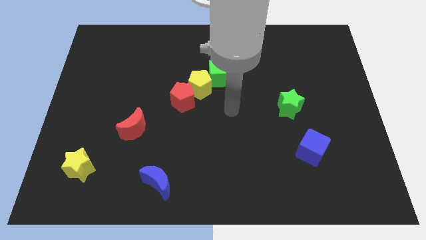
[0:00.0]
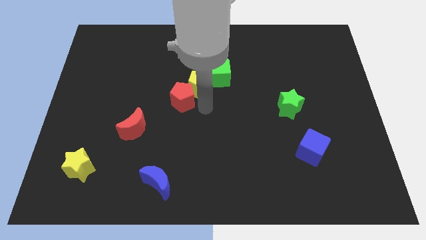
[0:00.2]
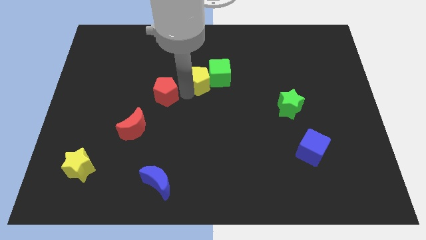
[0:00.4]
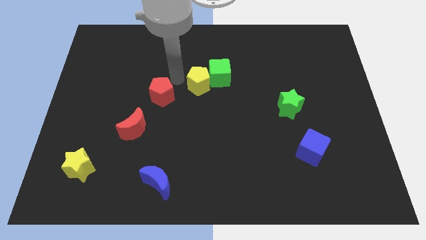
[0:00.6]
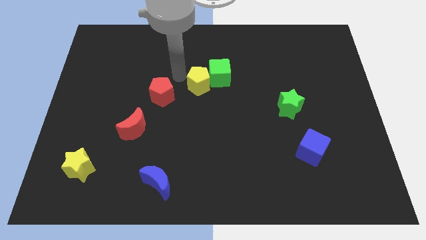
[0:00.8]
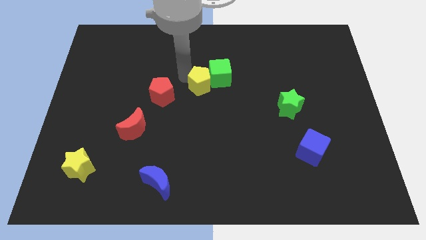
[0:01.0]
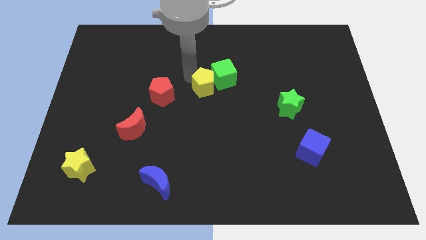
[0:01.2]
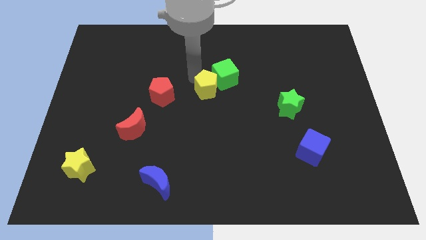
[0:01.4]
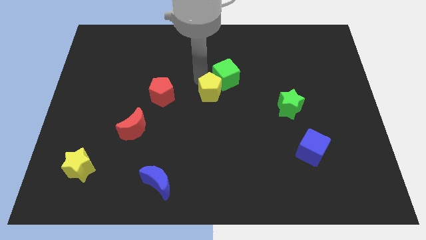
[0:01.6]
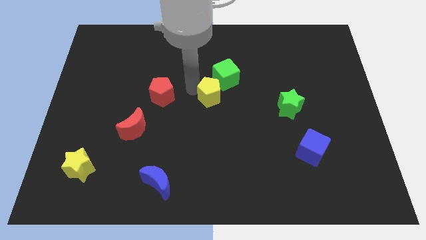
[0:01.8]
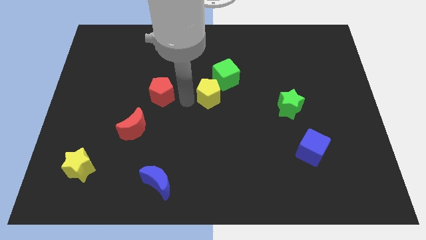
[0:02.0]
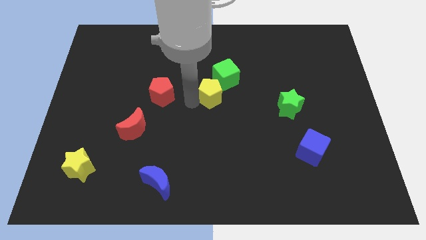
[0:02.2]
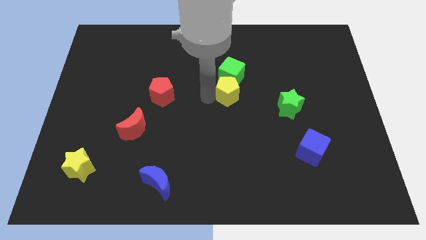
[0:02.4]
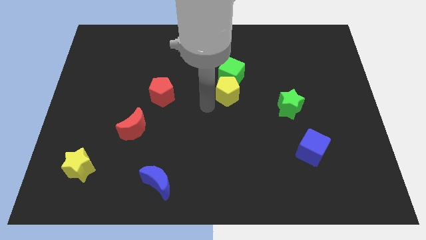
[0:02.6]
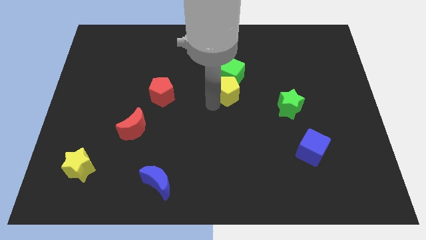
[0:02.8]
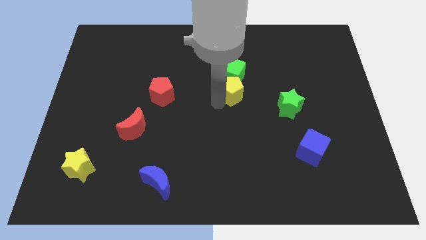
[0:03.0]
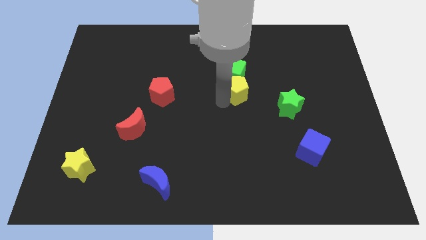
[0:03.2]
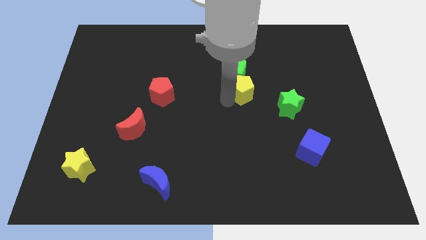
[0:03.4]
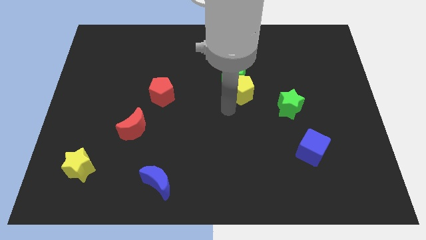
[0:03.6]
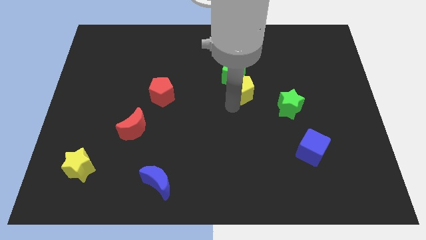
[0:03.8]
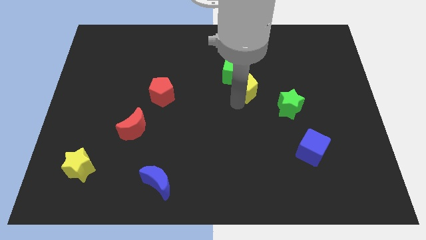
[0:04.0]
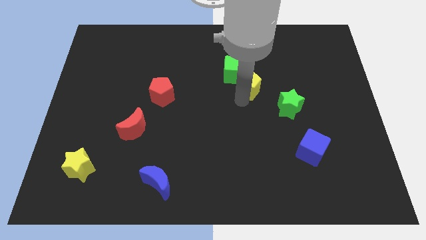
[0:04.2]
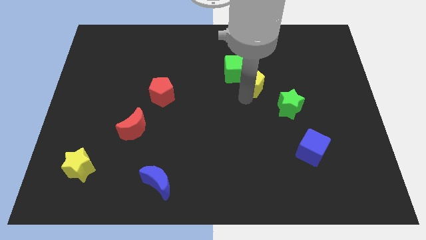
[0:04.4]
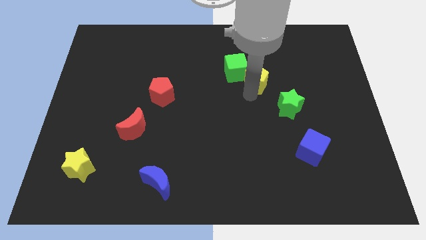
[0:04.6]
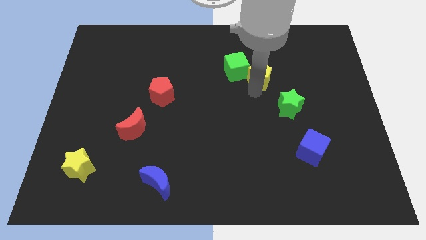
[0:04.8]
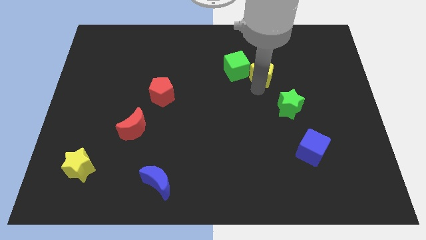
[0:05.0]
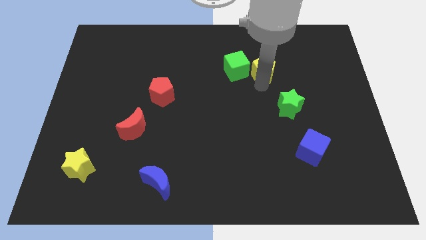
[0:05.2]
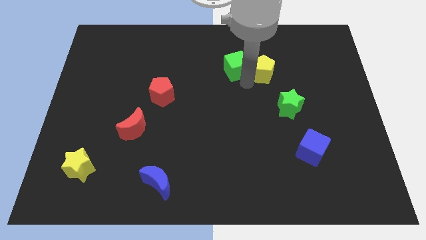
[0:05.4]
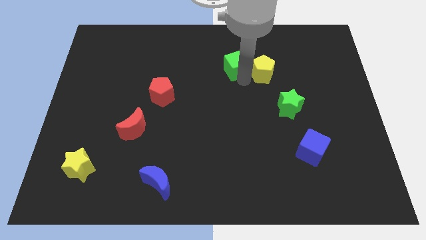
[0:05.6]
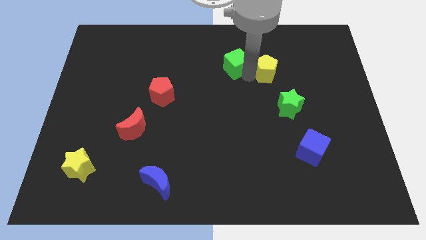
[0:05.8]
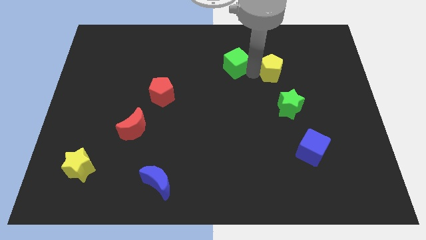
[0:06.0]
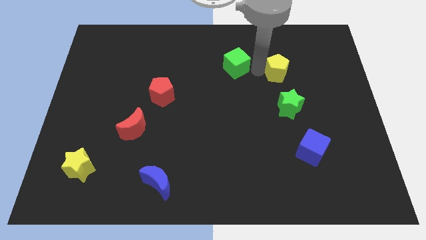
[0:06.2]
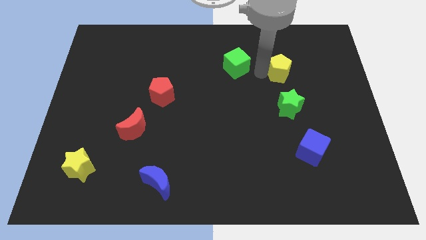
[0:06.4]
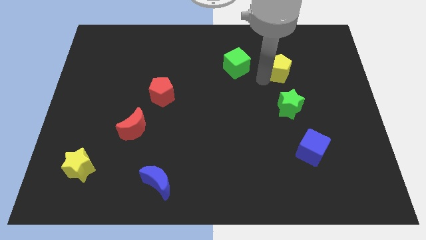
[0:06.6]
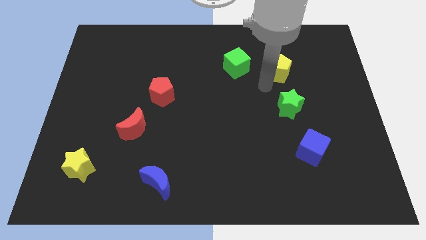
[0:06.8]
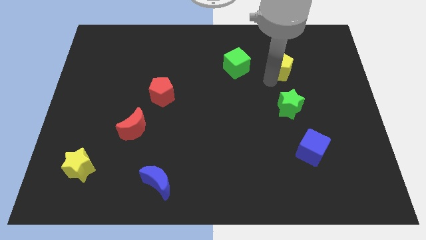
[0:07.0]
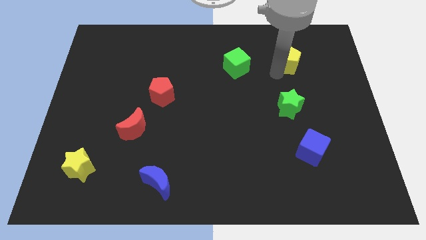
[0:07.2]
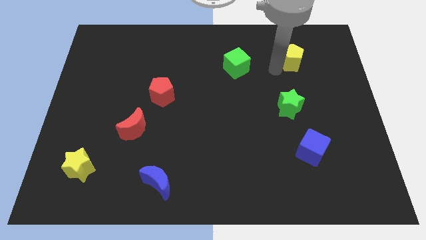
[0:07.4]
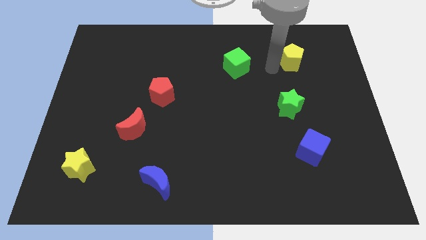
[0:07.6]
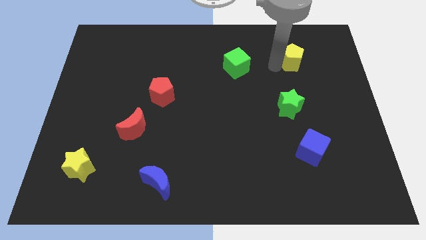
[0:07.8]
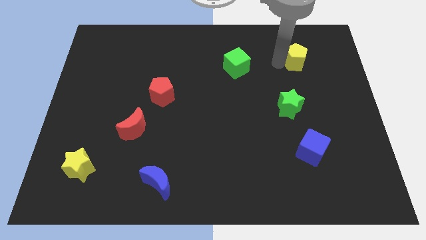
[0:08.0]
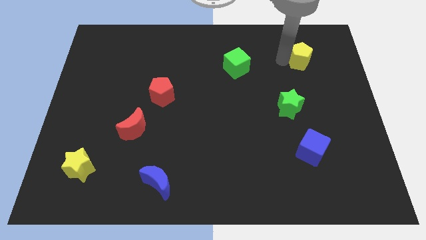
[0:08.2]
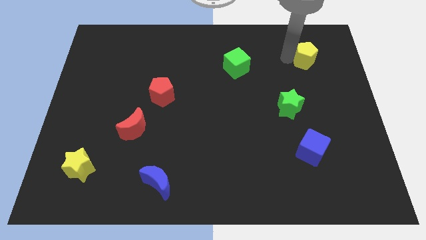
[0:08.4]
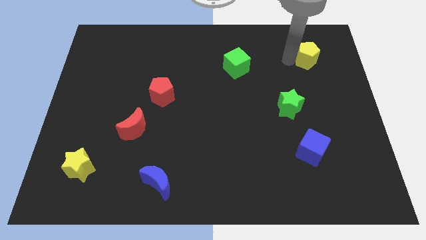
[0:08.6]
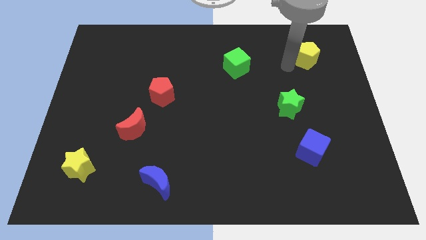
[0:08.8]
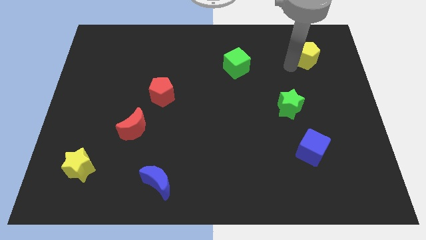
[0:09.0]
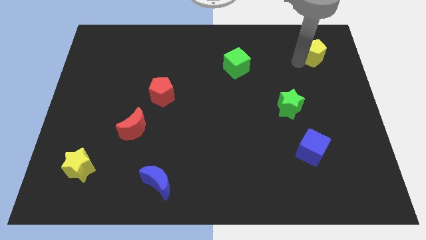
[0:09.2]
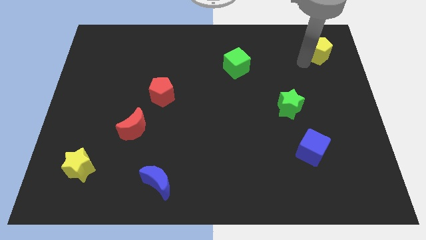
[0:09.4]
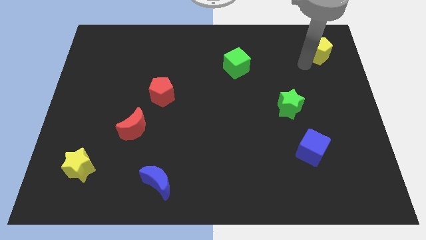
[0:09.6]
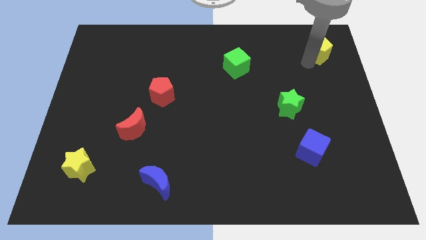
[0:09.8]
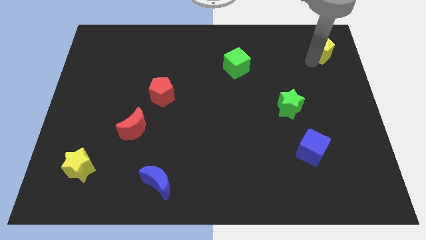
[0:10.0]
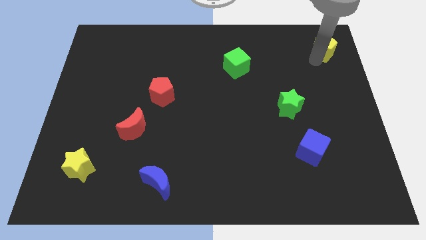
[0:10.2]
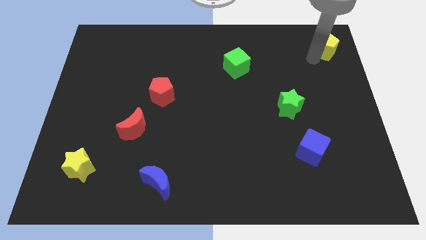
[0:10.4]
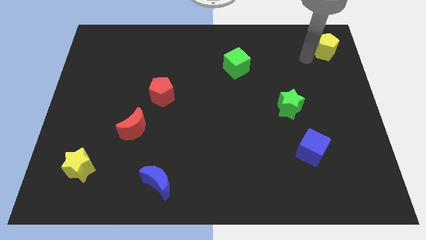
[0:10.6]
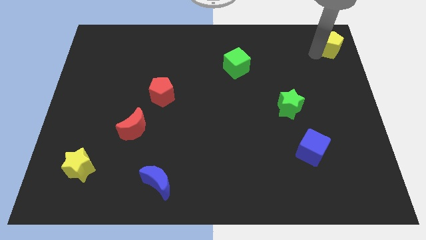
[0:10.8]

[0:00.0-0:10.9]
move the yellow pentagon to the top right of the board

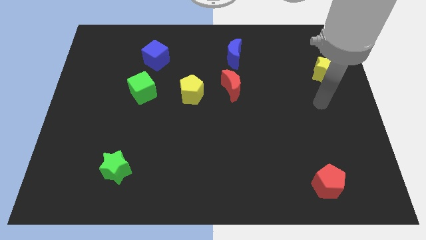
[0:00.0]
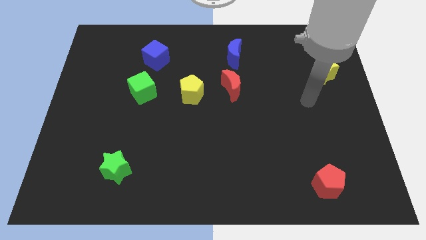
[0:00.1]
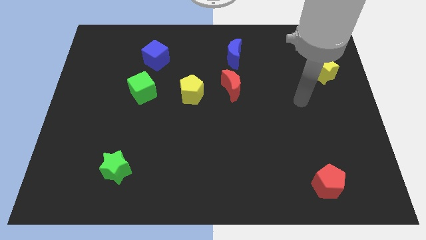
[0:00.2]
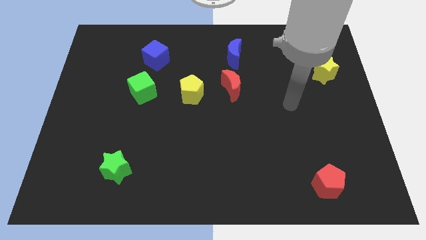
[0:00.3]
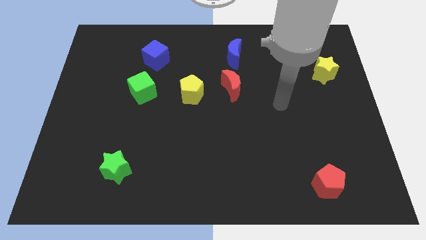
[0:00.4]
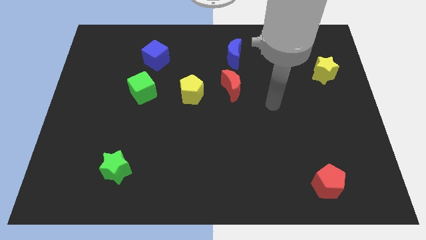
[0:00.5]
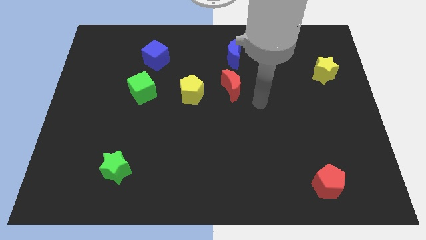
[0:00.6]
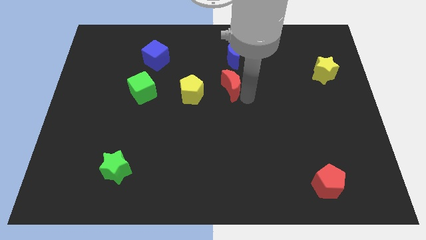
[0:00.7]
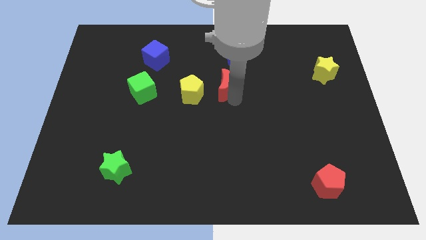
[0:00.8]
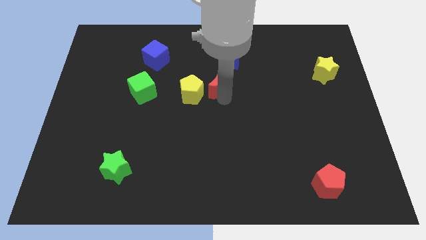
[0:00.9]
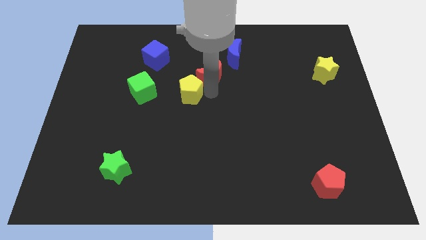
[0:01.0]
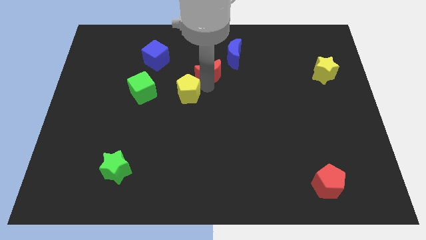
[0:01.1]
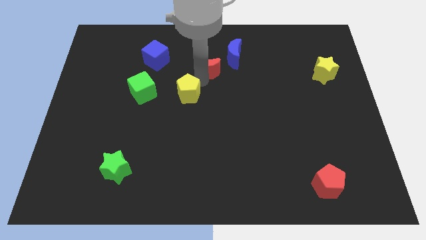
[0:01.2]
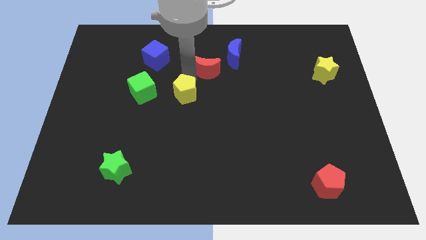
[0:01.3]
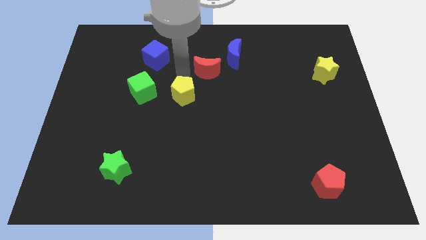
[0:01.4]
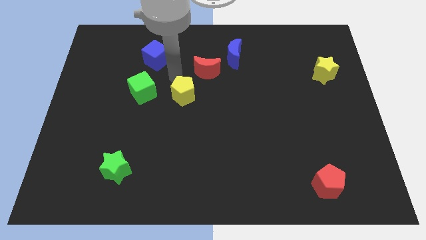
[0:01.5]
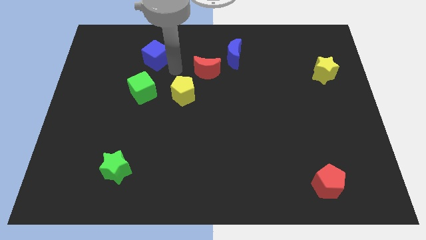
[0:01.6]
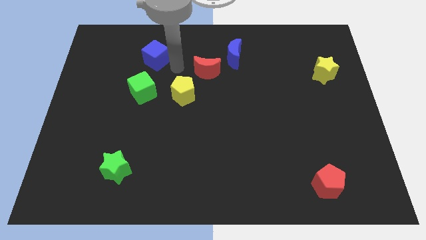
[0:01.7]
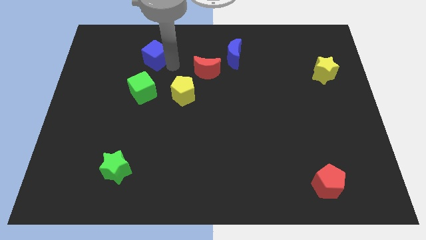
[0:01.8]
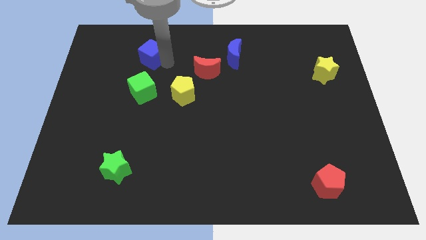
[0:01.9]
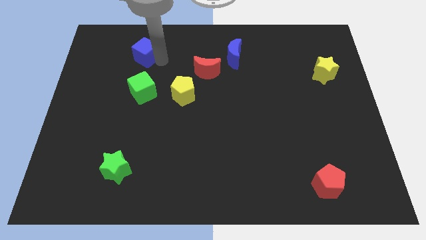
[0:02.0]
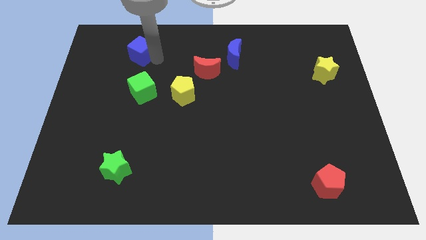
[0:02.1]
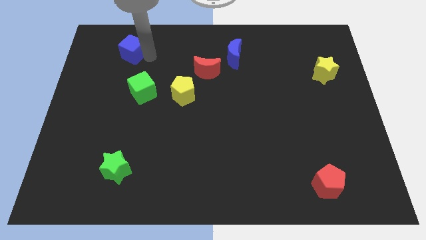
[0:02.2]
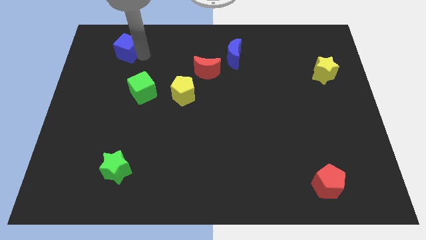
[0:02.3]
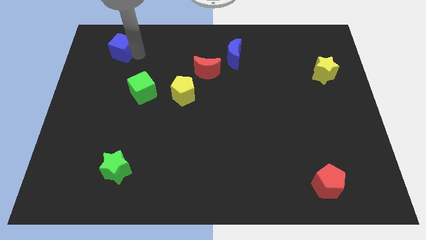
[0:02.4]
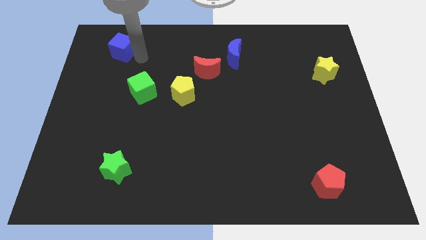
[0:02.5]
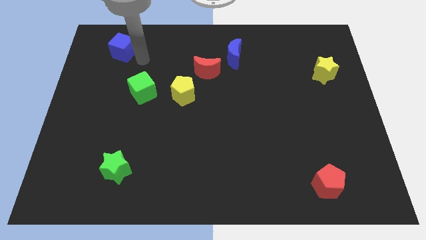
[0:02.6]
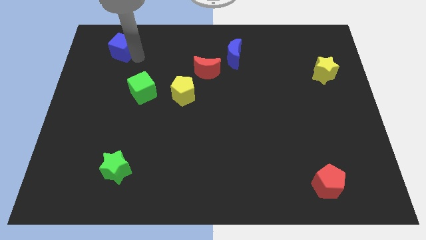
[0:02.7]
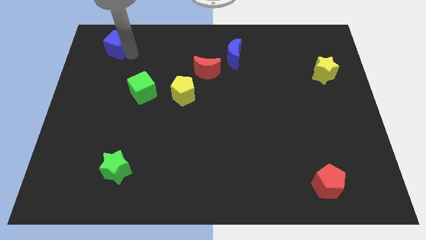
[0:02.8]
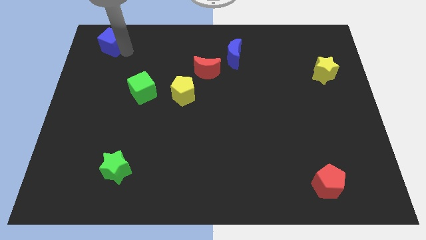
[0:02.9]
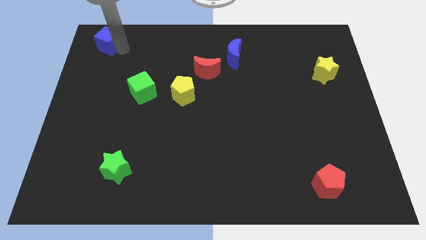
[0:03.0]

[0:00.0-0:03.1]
push the blue cube to the top left corner
